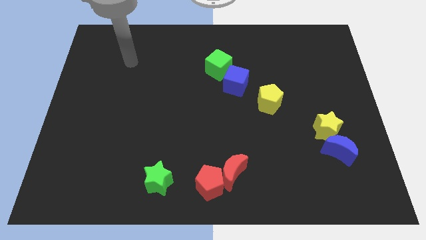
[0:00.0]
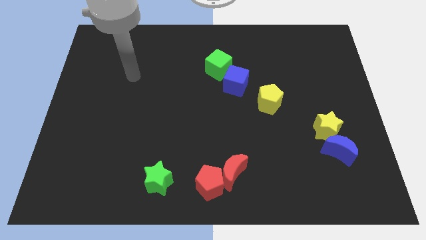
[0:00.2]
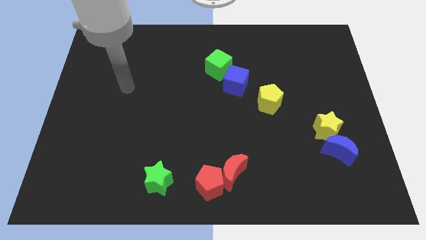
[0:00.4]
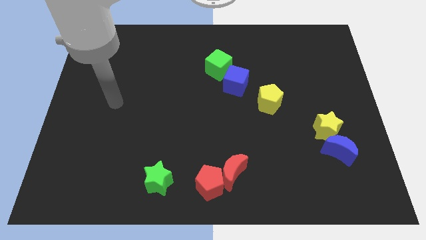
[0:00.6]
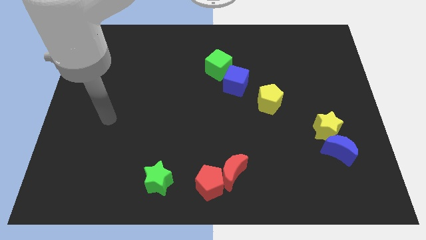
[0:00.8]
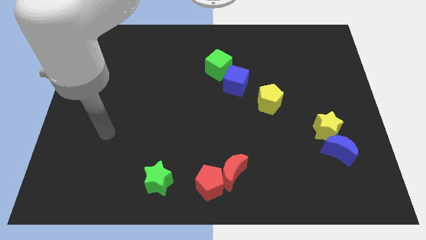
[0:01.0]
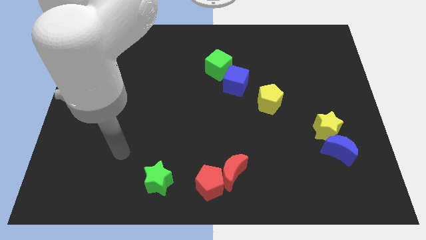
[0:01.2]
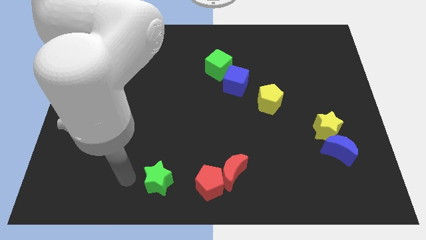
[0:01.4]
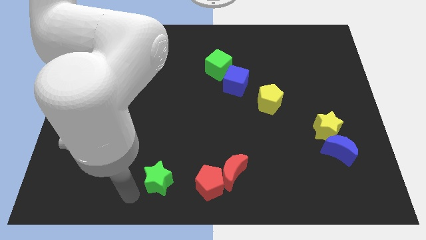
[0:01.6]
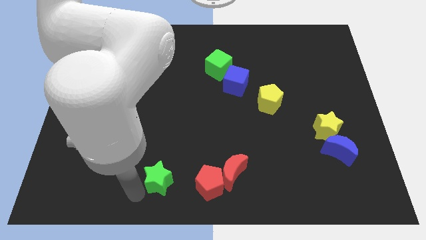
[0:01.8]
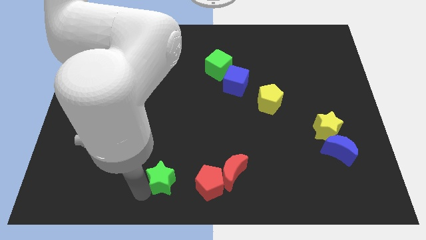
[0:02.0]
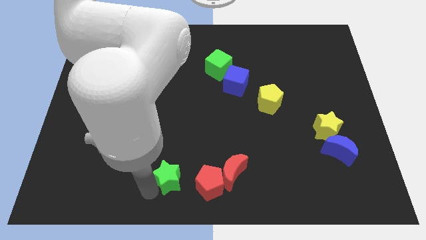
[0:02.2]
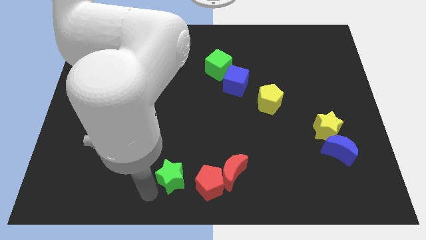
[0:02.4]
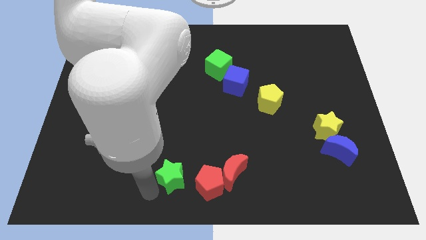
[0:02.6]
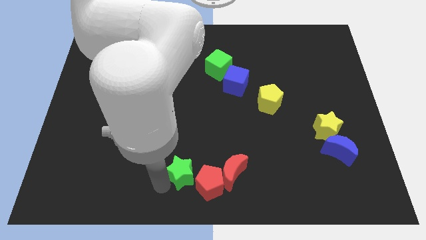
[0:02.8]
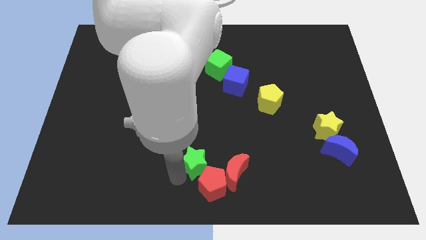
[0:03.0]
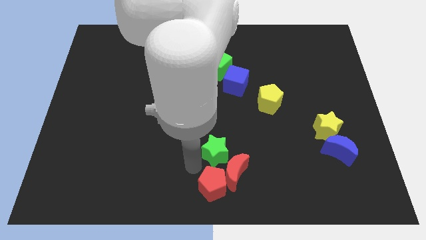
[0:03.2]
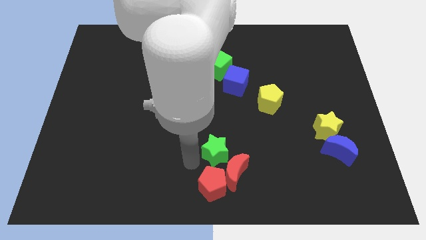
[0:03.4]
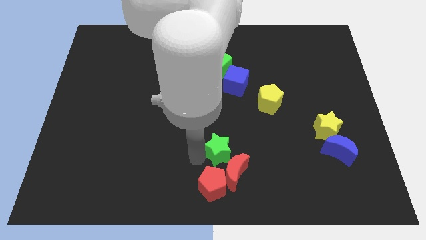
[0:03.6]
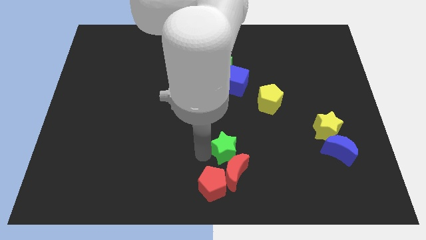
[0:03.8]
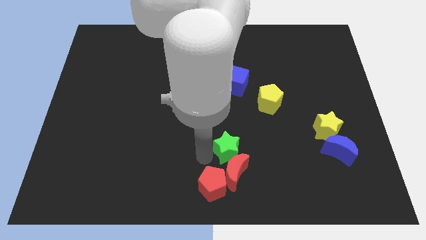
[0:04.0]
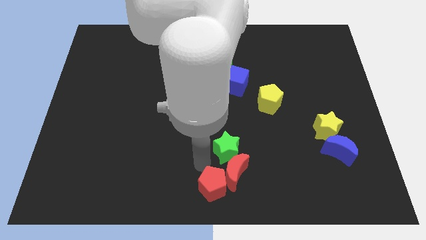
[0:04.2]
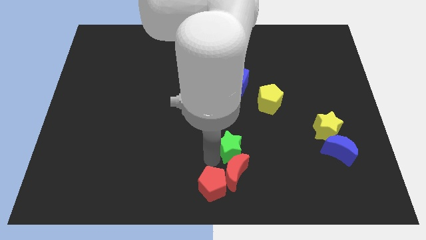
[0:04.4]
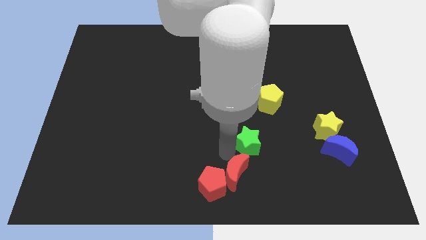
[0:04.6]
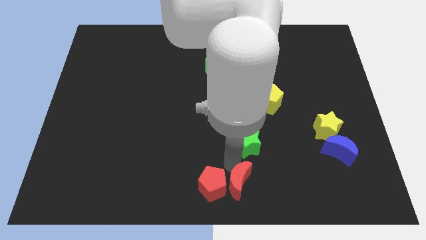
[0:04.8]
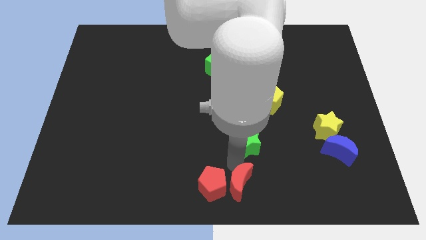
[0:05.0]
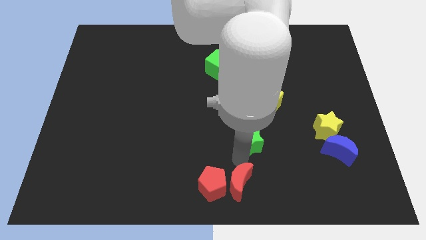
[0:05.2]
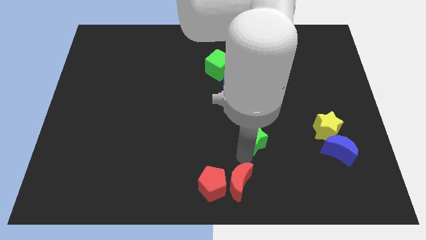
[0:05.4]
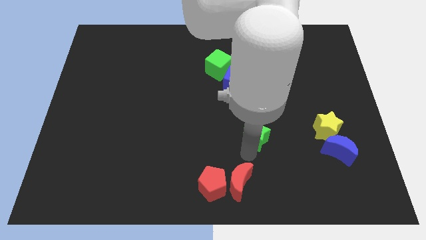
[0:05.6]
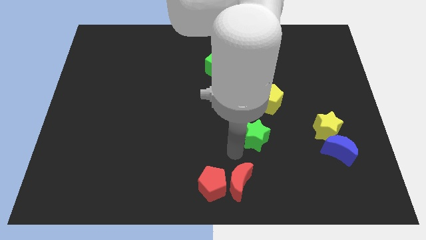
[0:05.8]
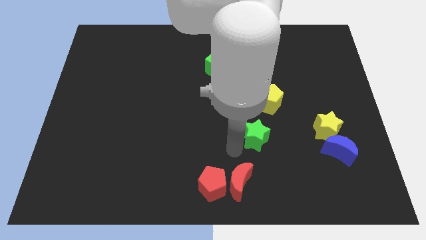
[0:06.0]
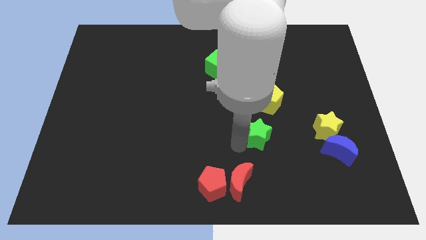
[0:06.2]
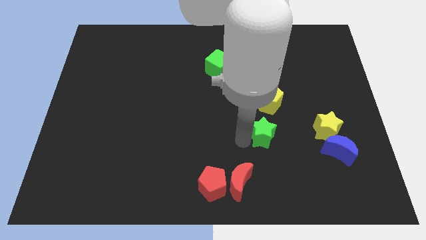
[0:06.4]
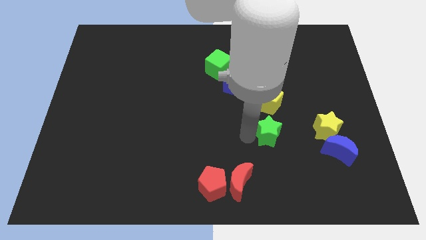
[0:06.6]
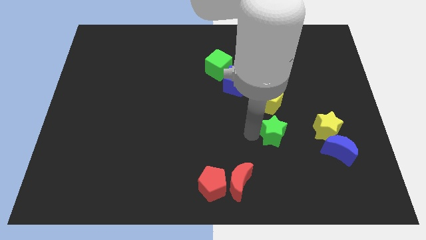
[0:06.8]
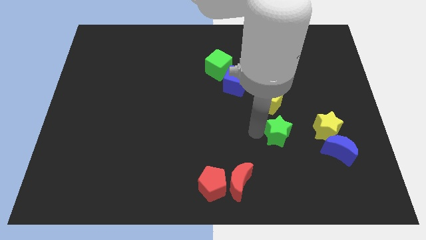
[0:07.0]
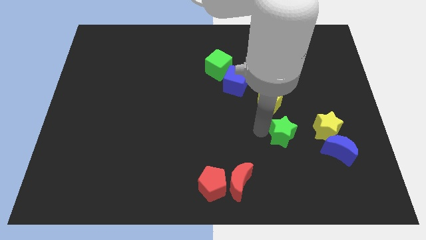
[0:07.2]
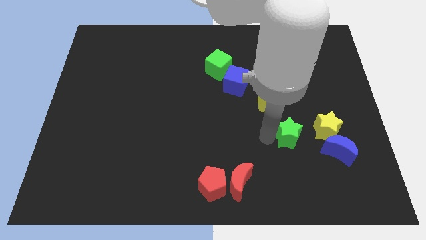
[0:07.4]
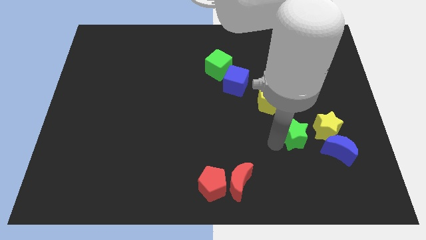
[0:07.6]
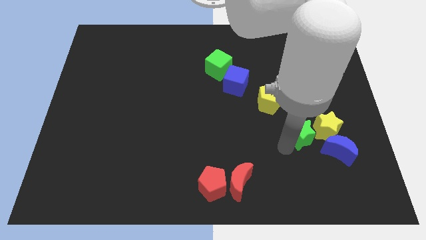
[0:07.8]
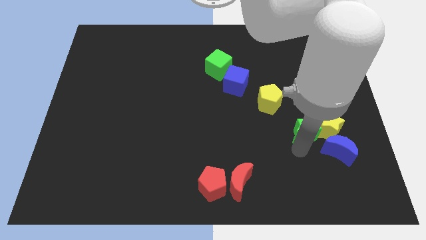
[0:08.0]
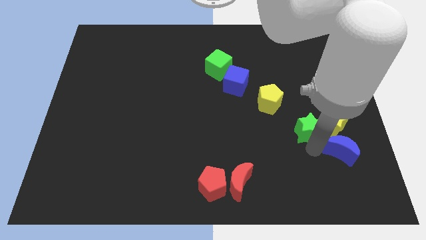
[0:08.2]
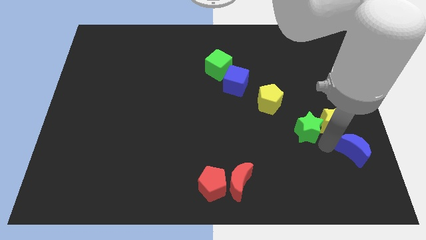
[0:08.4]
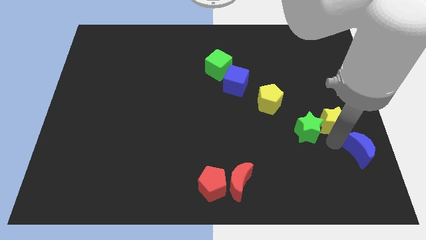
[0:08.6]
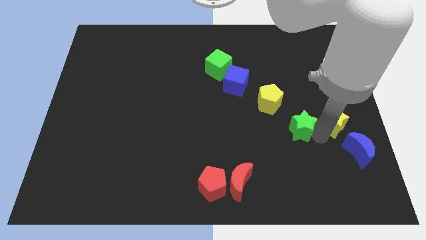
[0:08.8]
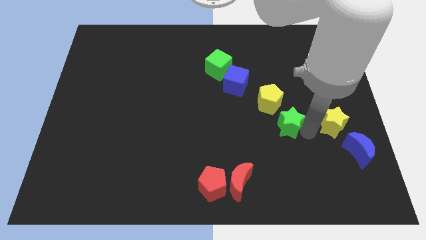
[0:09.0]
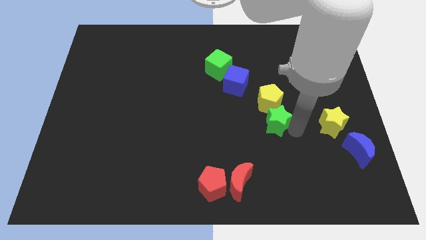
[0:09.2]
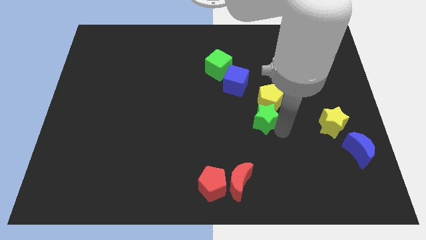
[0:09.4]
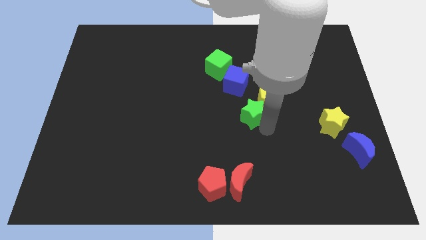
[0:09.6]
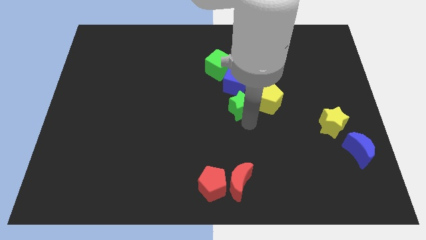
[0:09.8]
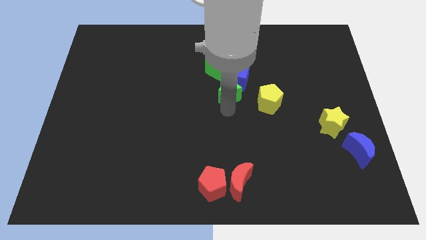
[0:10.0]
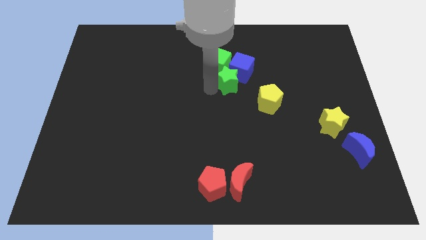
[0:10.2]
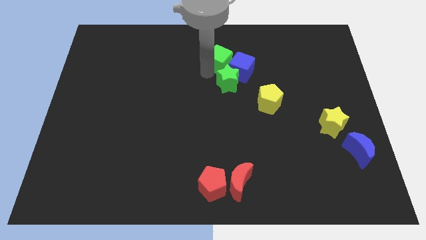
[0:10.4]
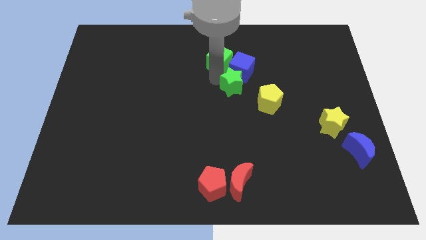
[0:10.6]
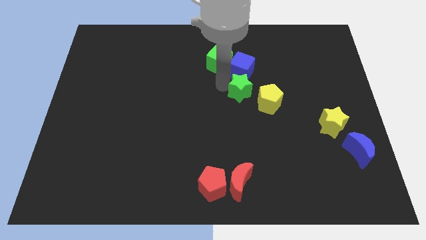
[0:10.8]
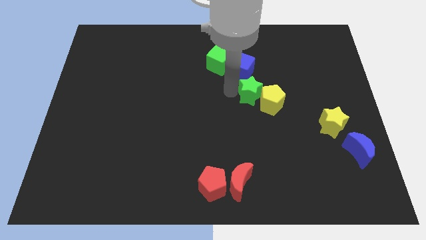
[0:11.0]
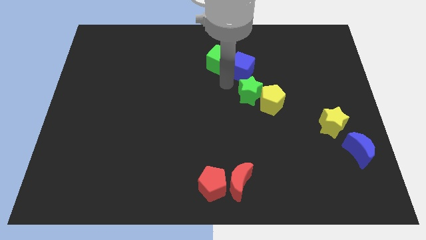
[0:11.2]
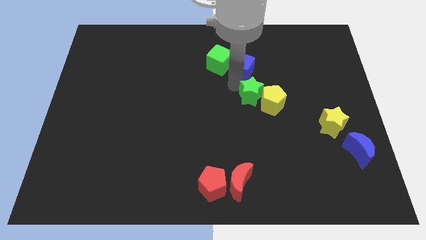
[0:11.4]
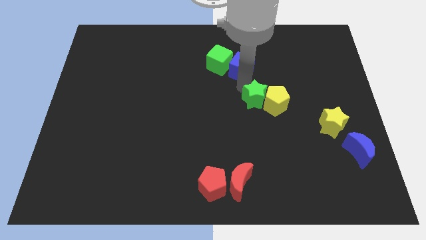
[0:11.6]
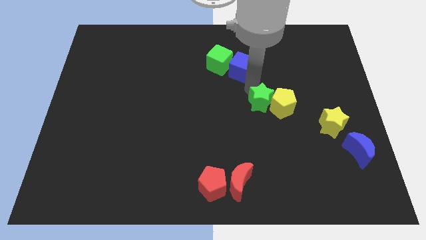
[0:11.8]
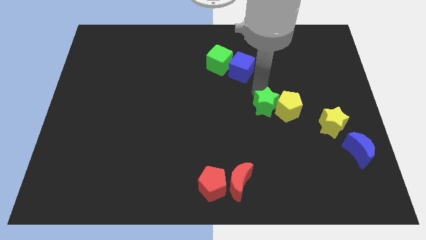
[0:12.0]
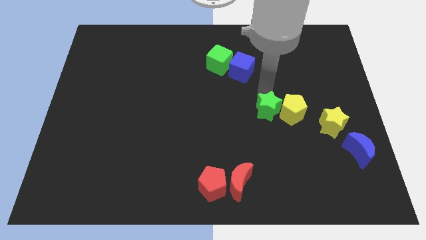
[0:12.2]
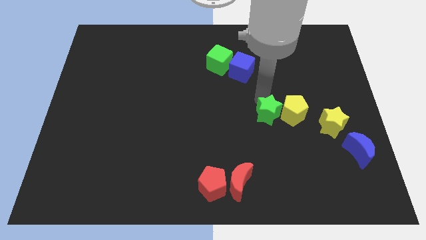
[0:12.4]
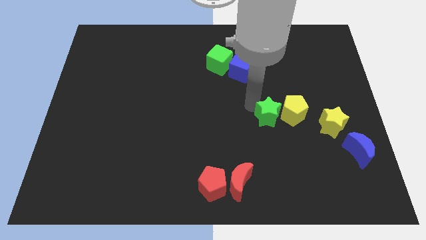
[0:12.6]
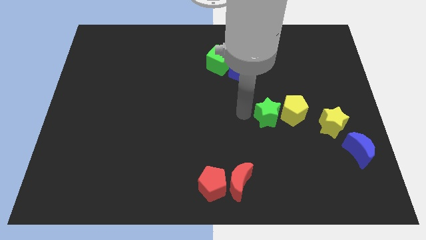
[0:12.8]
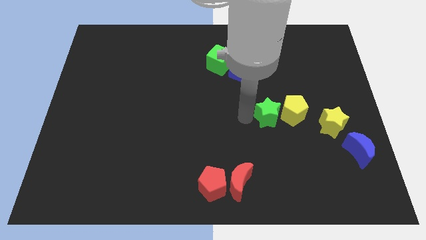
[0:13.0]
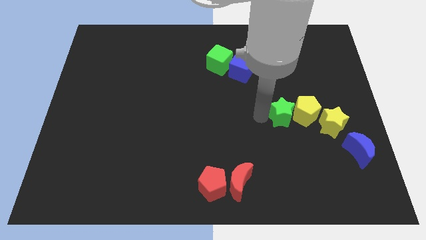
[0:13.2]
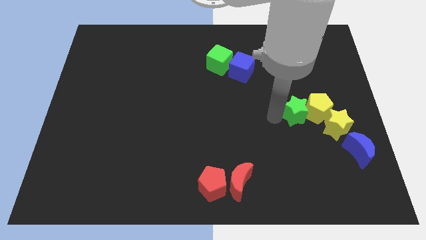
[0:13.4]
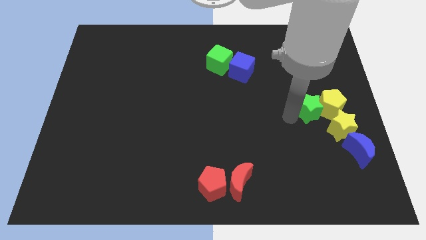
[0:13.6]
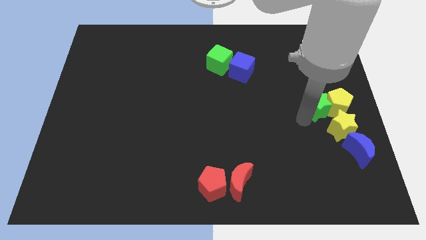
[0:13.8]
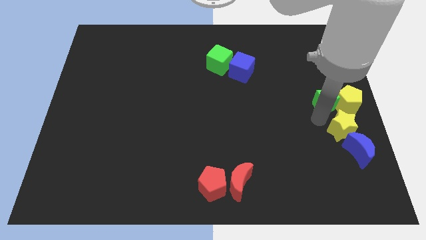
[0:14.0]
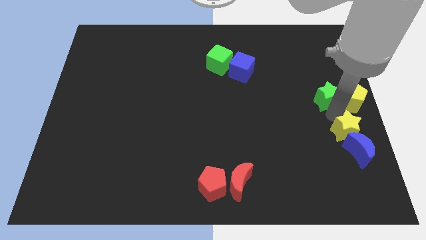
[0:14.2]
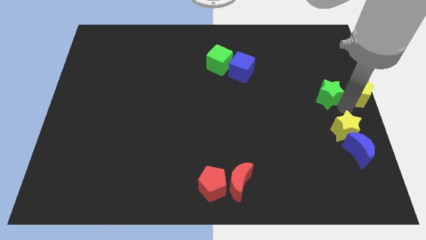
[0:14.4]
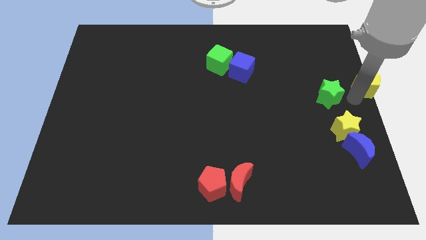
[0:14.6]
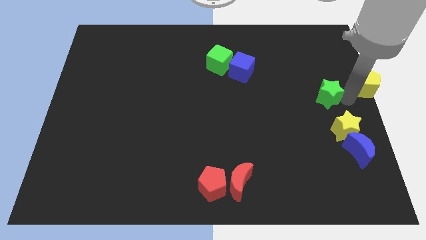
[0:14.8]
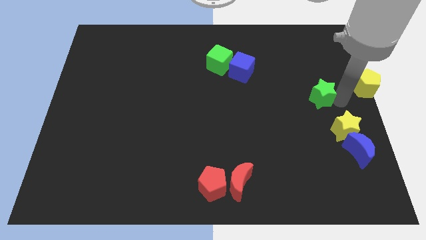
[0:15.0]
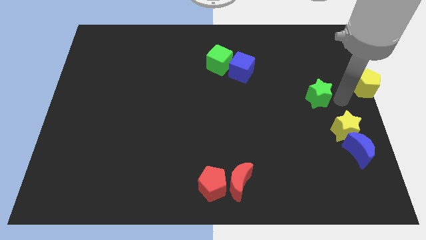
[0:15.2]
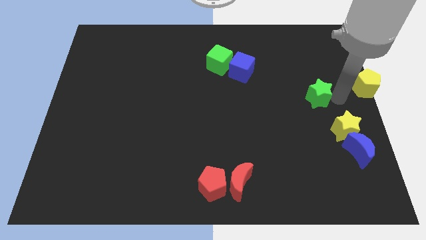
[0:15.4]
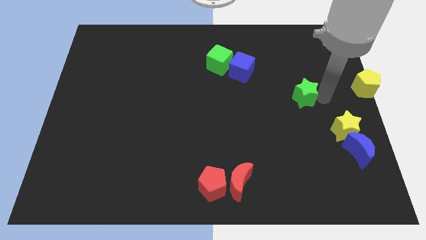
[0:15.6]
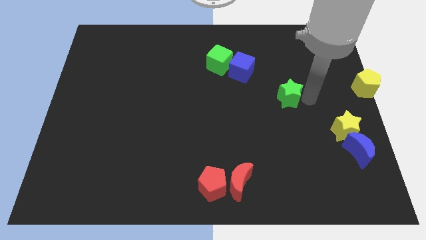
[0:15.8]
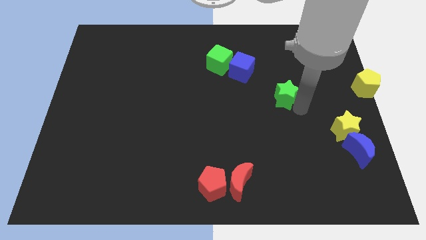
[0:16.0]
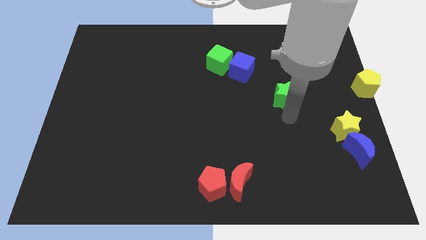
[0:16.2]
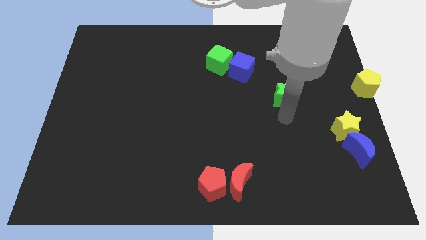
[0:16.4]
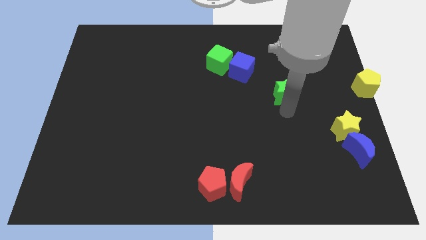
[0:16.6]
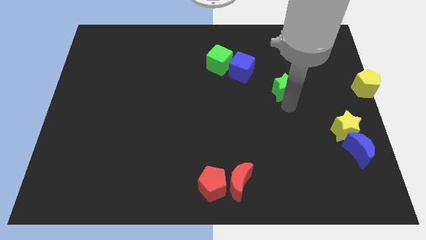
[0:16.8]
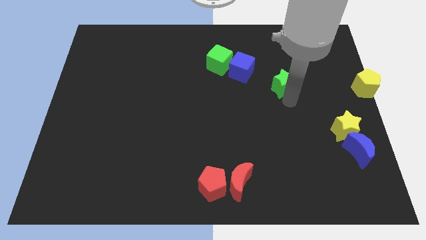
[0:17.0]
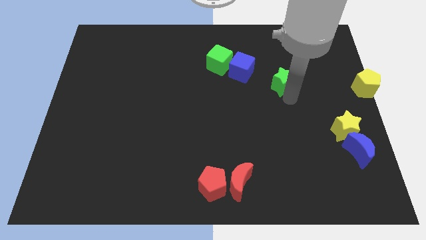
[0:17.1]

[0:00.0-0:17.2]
move the green star just right of the blue cube
